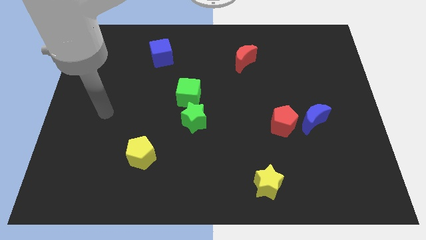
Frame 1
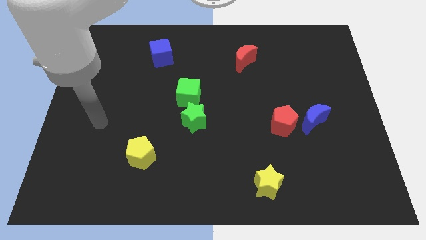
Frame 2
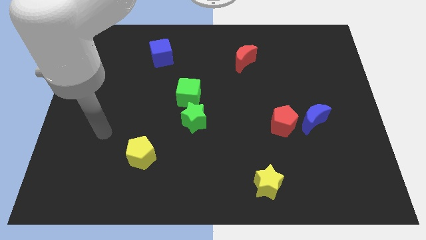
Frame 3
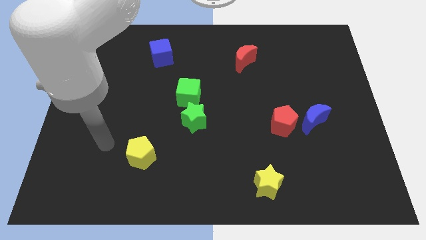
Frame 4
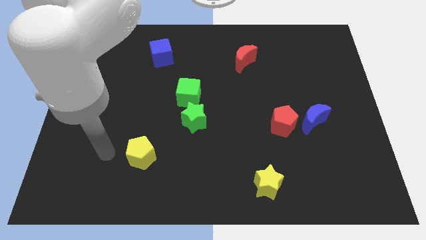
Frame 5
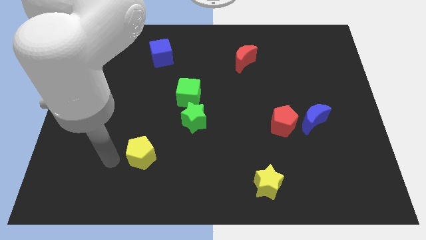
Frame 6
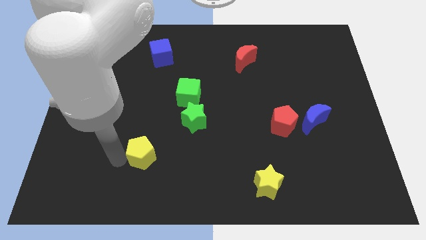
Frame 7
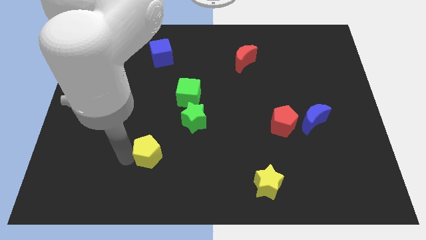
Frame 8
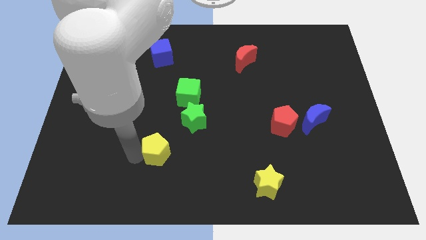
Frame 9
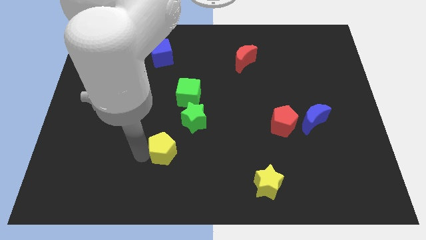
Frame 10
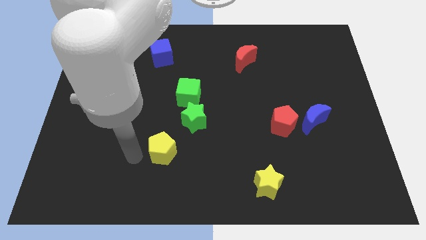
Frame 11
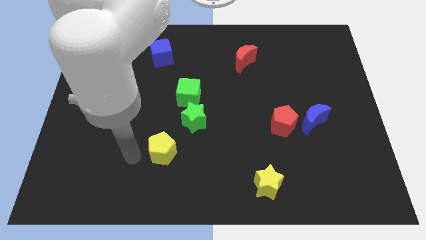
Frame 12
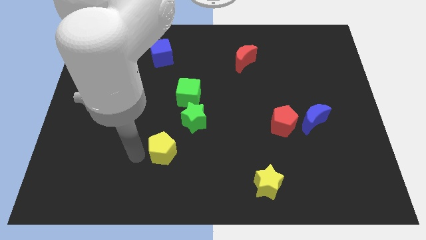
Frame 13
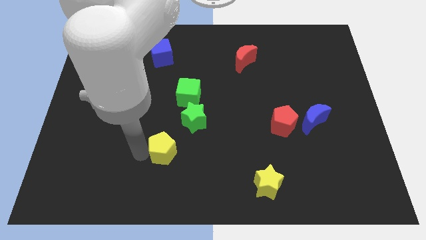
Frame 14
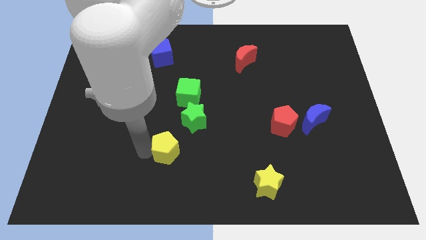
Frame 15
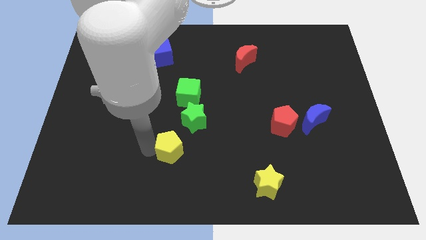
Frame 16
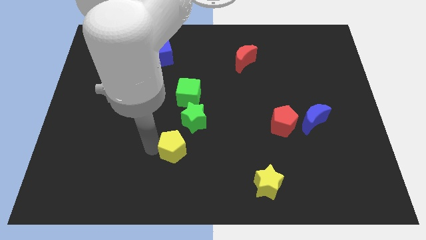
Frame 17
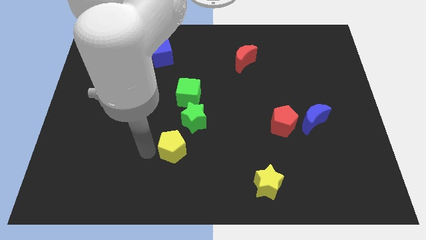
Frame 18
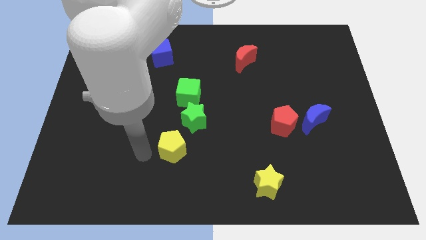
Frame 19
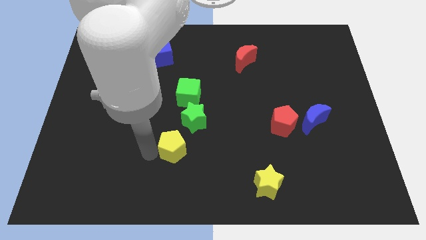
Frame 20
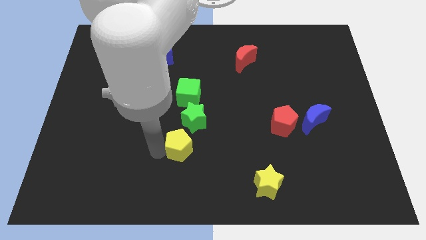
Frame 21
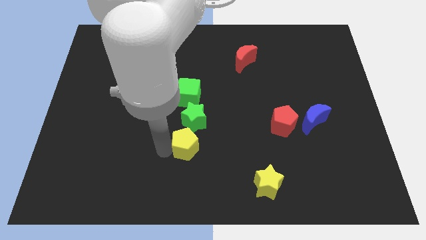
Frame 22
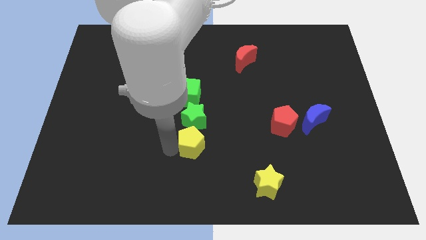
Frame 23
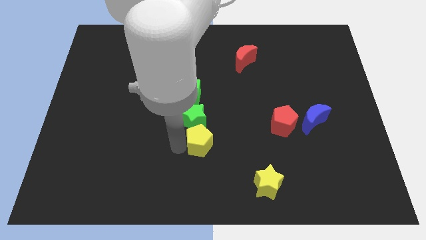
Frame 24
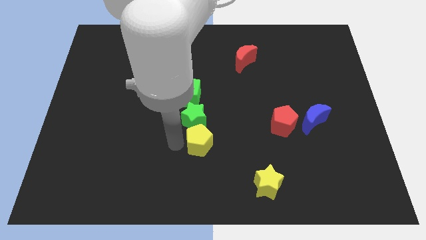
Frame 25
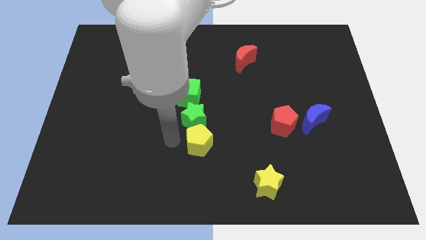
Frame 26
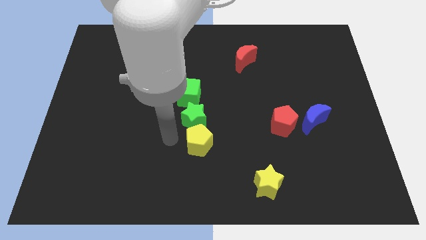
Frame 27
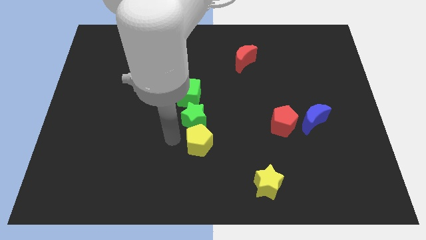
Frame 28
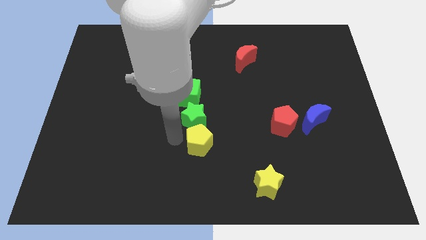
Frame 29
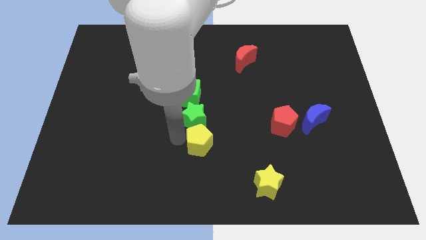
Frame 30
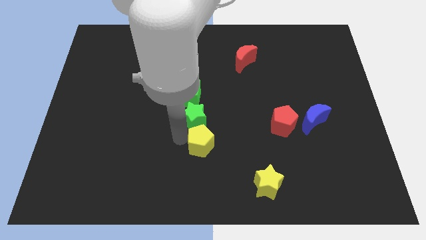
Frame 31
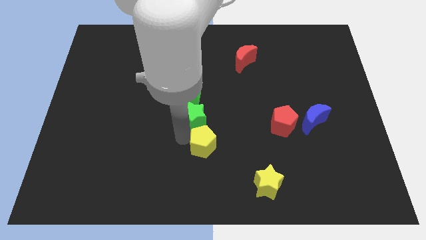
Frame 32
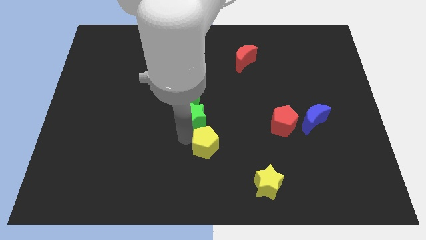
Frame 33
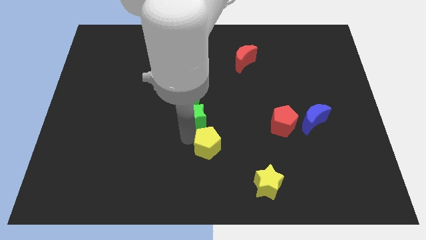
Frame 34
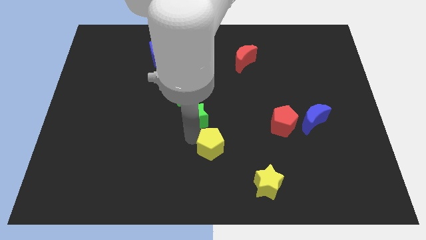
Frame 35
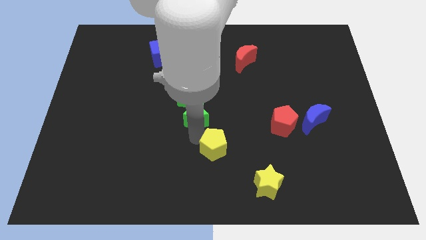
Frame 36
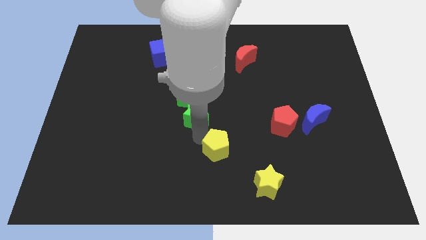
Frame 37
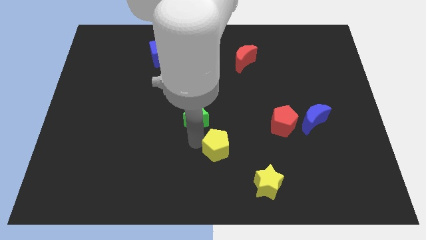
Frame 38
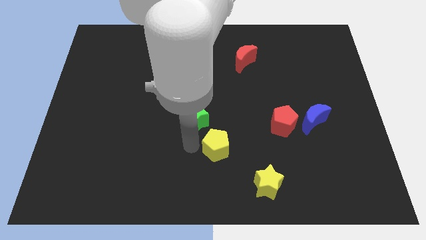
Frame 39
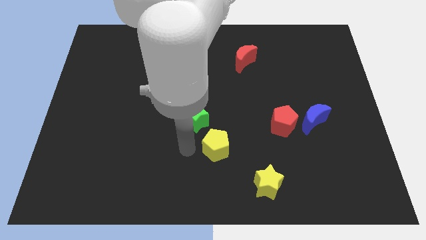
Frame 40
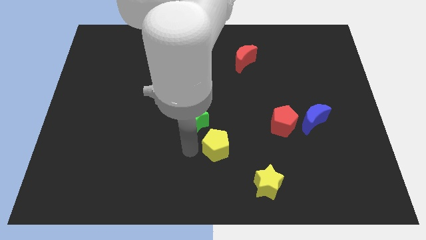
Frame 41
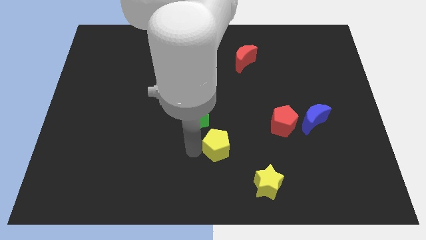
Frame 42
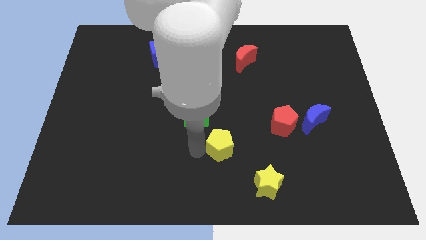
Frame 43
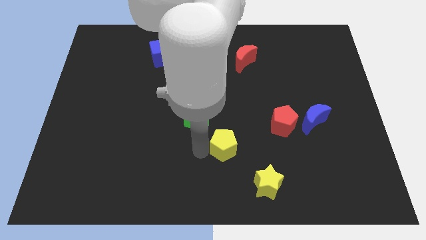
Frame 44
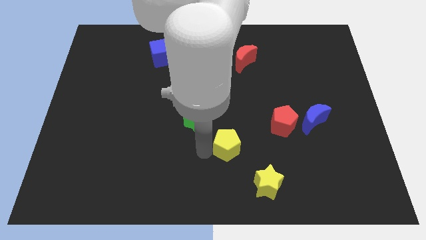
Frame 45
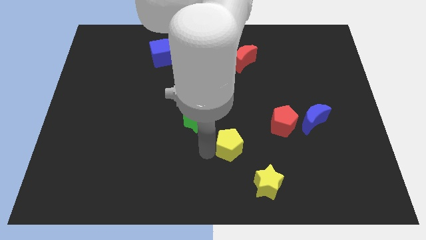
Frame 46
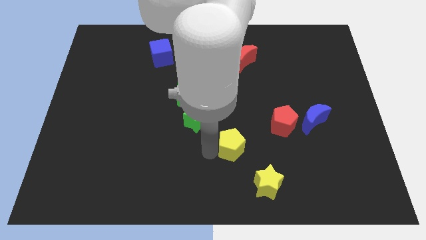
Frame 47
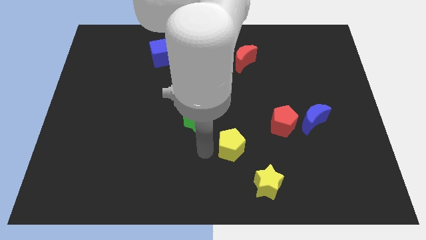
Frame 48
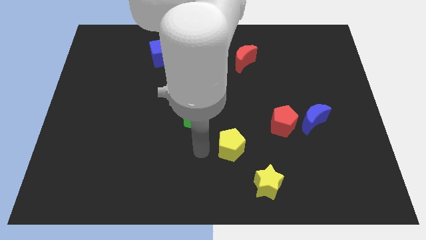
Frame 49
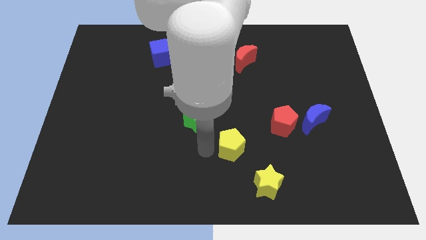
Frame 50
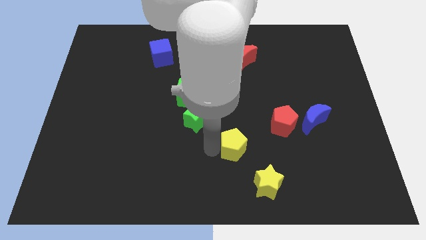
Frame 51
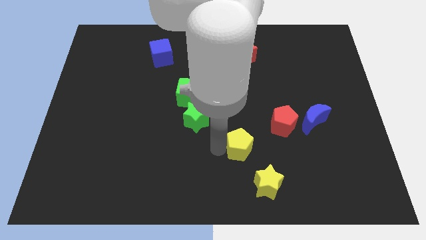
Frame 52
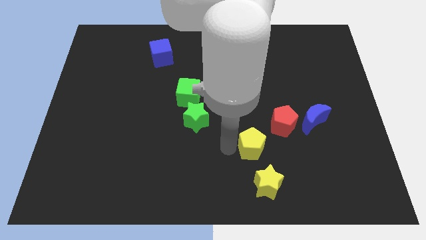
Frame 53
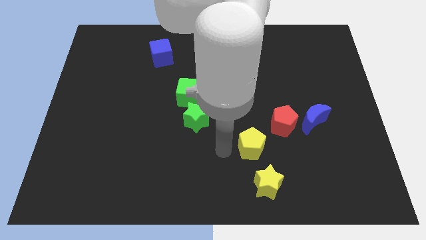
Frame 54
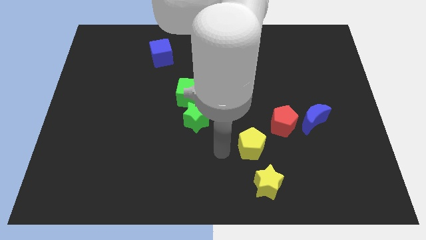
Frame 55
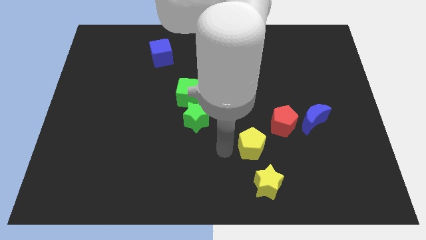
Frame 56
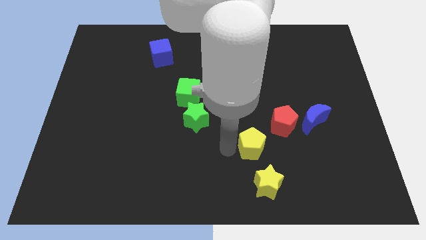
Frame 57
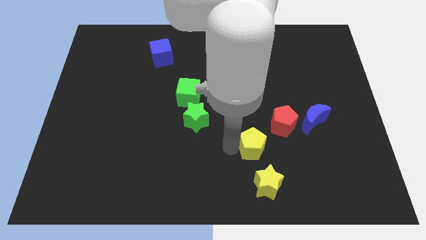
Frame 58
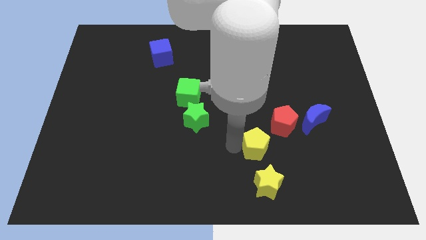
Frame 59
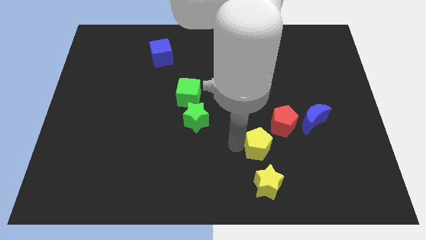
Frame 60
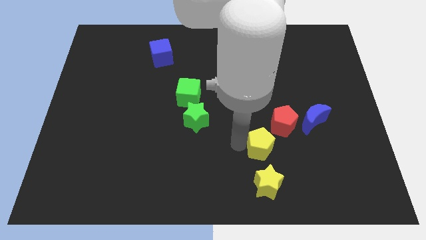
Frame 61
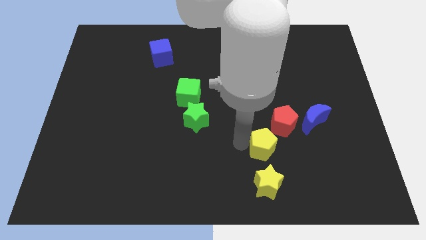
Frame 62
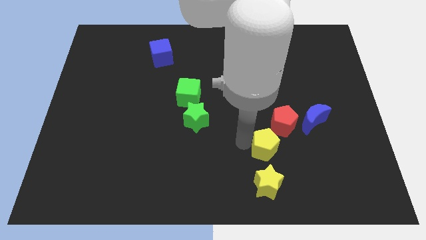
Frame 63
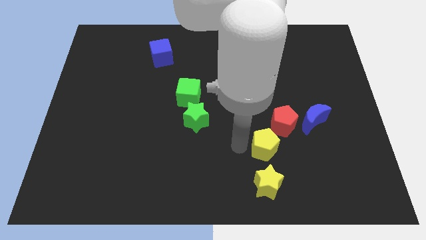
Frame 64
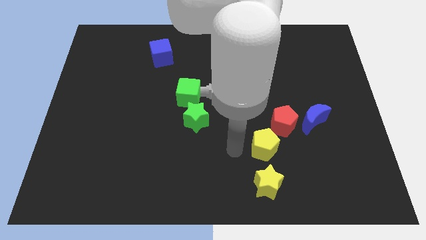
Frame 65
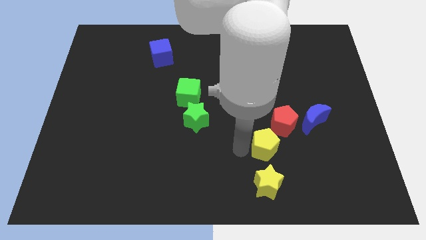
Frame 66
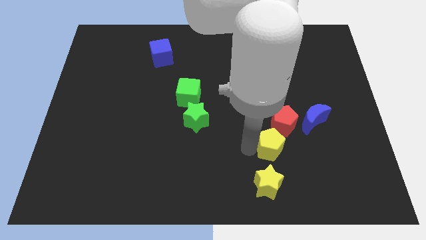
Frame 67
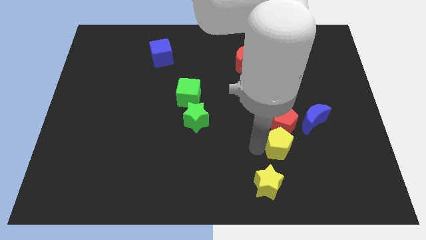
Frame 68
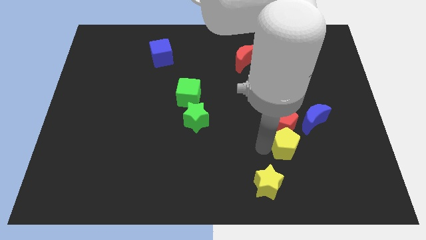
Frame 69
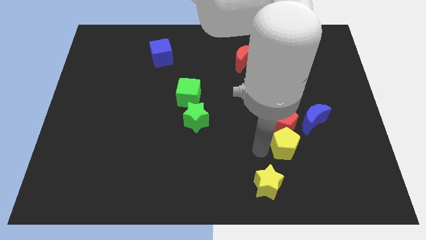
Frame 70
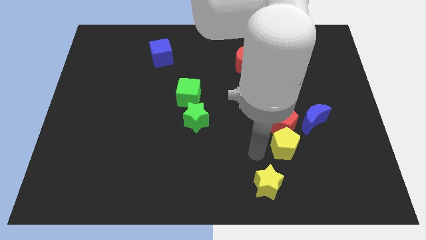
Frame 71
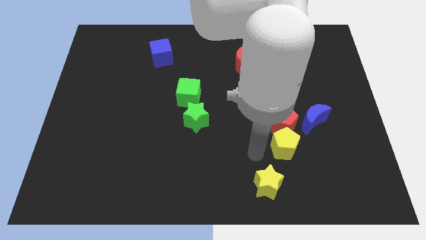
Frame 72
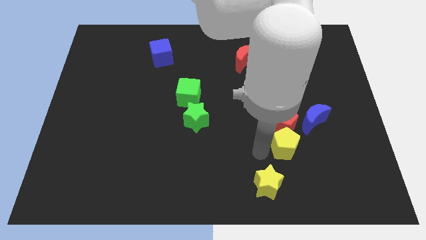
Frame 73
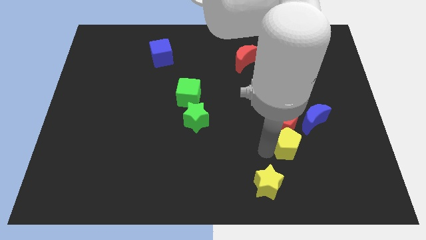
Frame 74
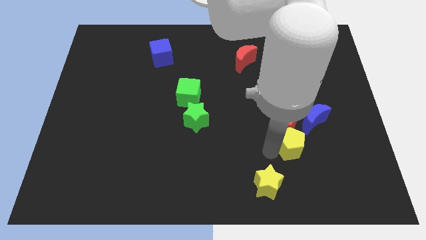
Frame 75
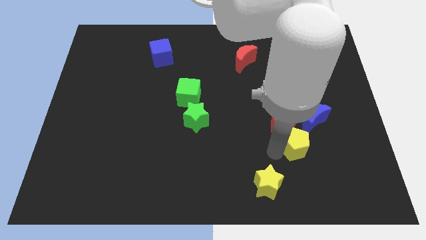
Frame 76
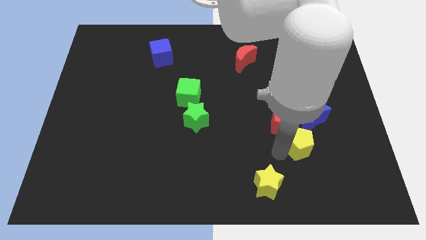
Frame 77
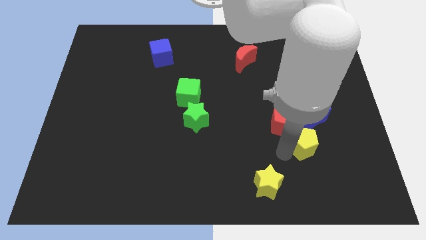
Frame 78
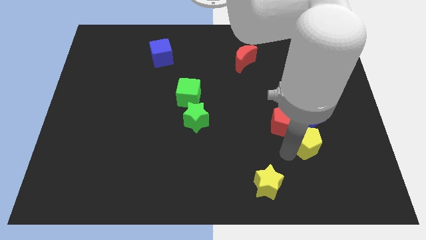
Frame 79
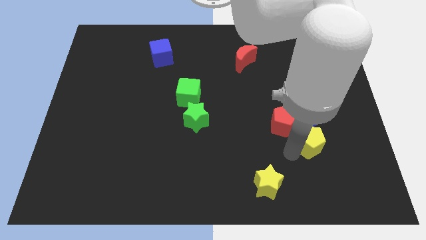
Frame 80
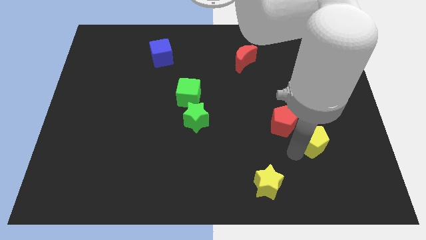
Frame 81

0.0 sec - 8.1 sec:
move the yellow pentagon towards the blue moon
